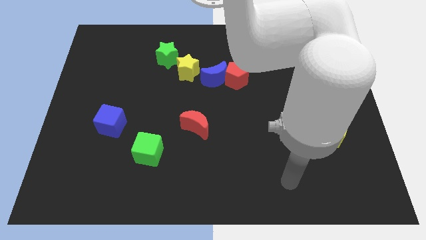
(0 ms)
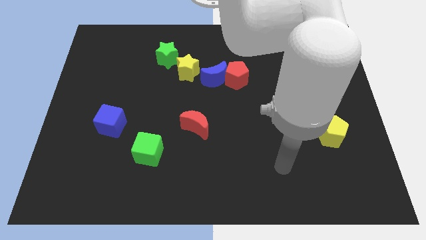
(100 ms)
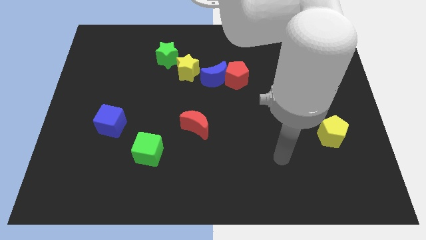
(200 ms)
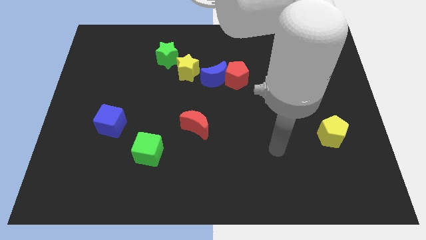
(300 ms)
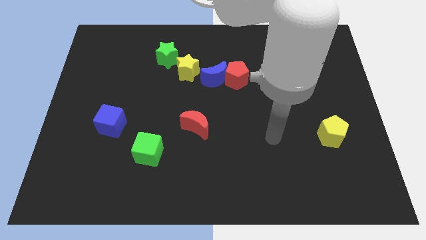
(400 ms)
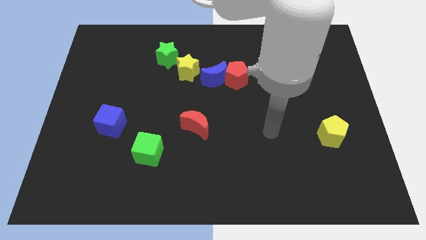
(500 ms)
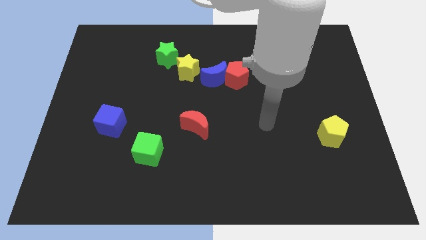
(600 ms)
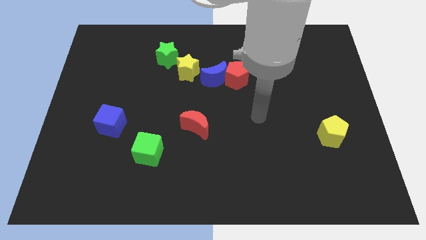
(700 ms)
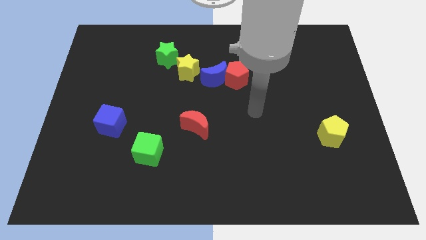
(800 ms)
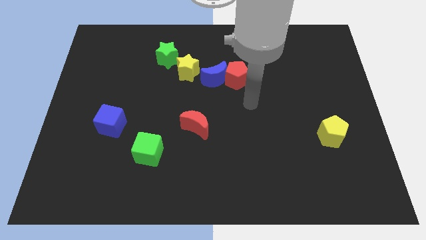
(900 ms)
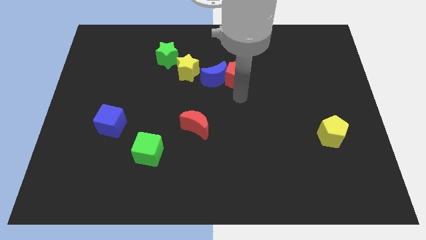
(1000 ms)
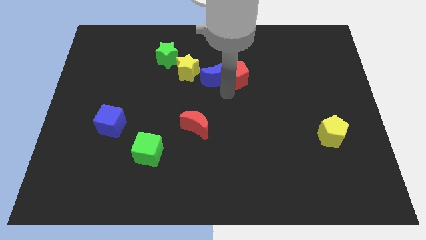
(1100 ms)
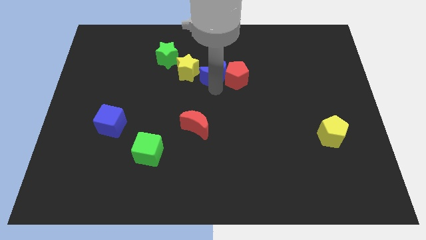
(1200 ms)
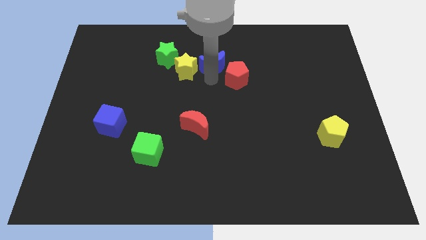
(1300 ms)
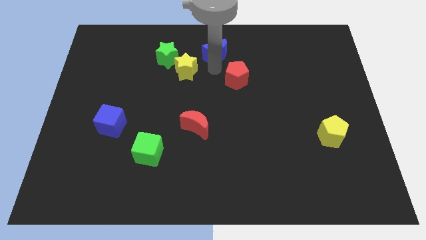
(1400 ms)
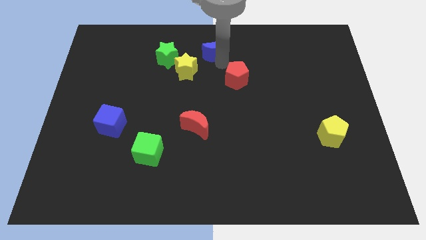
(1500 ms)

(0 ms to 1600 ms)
separate the red pentagon from the blue moon

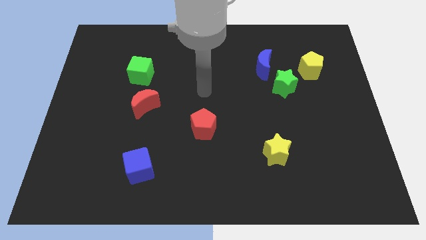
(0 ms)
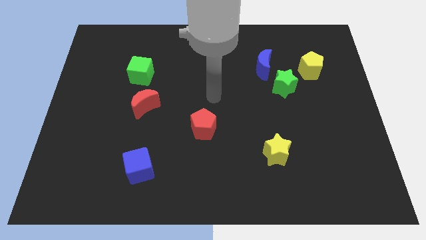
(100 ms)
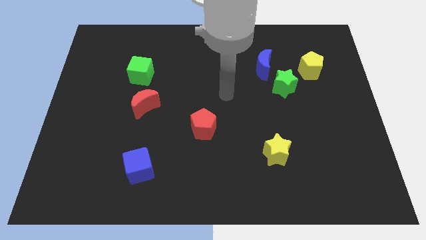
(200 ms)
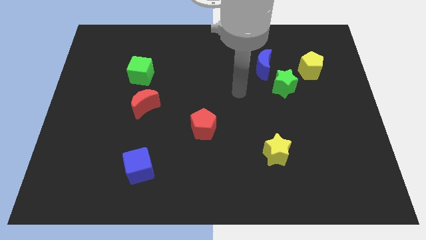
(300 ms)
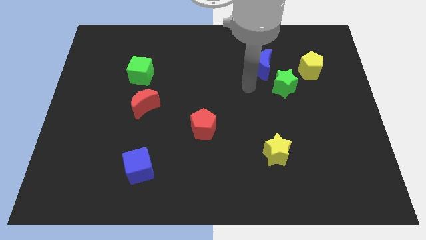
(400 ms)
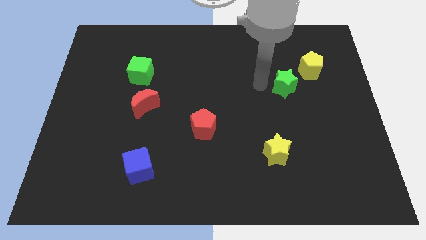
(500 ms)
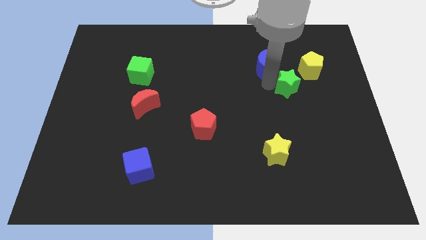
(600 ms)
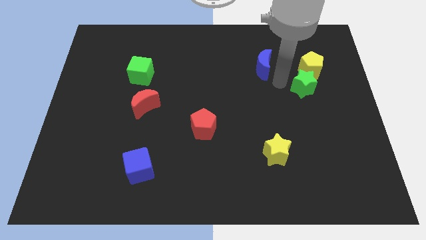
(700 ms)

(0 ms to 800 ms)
move the blue moon away from the green star

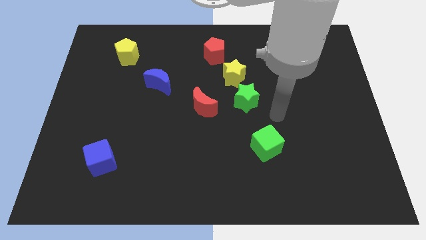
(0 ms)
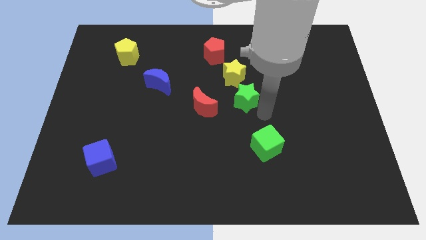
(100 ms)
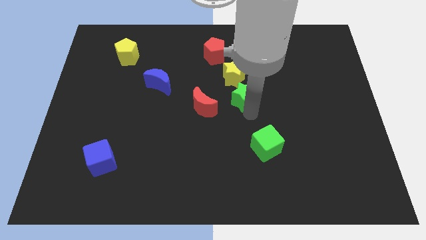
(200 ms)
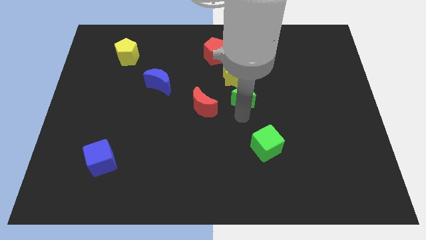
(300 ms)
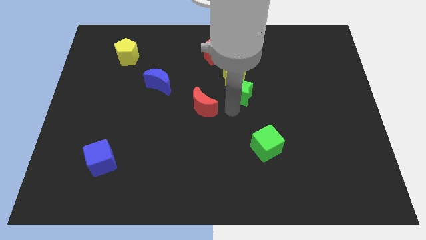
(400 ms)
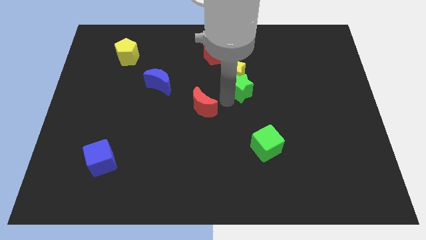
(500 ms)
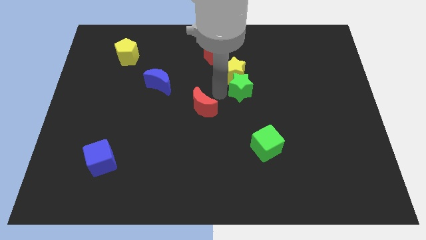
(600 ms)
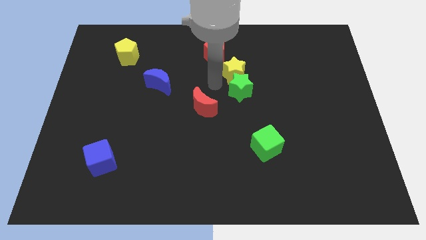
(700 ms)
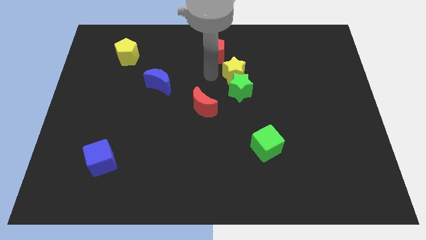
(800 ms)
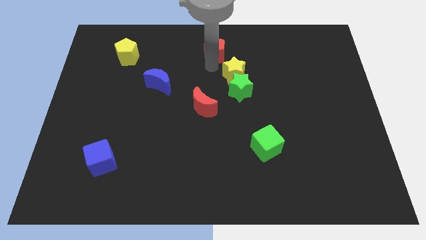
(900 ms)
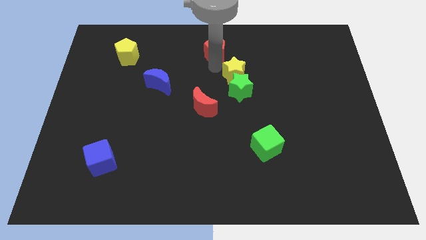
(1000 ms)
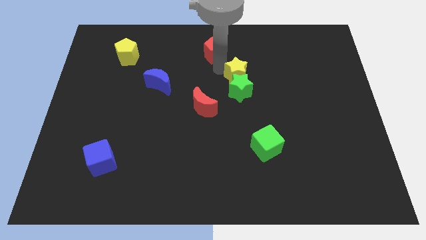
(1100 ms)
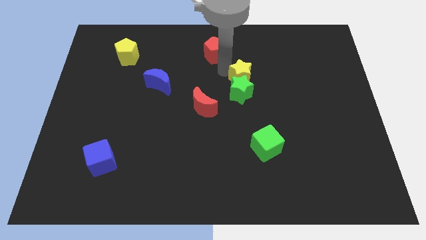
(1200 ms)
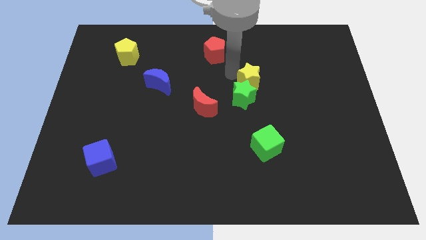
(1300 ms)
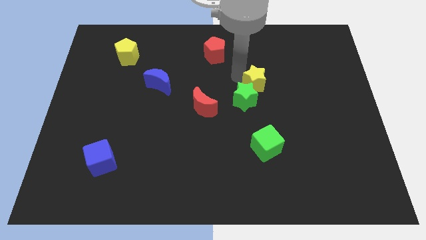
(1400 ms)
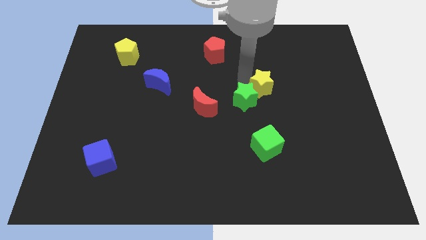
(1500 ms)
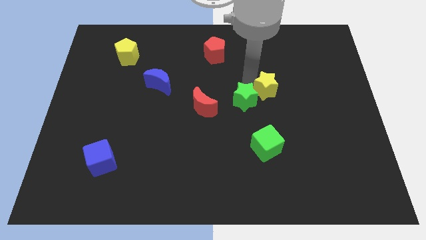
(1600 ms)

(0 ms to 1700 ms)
separate the yellow star from the green star and red pentagon

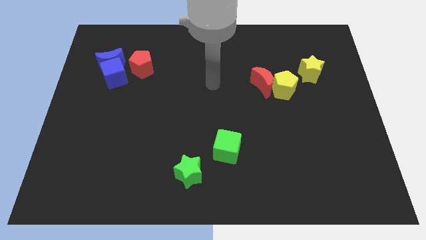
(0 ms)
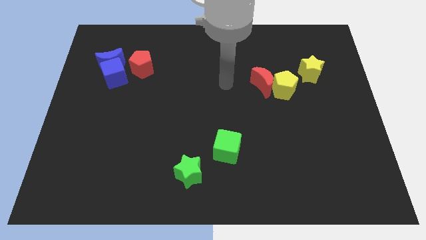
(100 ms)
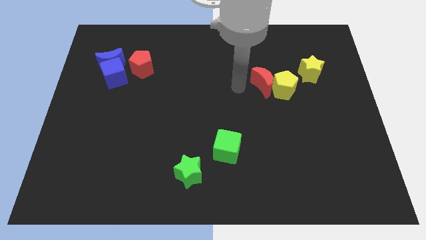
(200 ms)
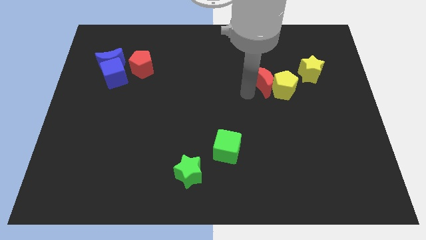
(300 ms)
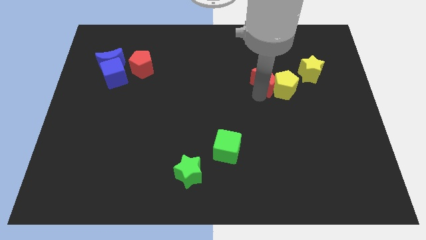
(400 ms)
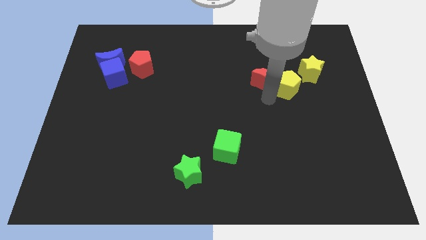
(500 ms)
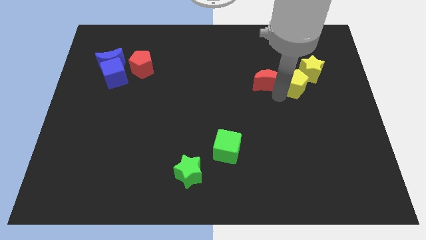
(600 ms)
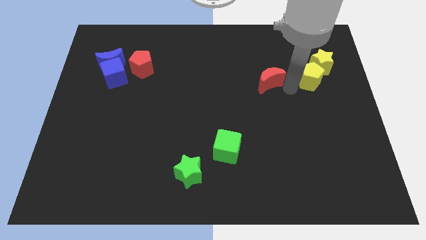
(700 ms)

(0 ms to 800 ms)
move the red moon away from the yellow pentagon

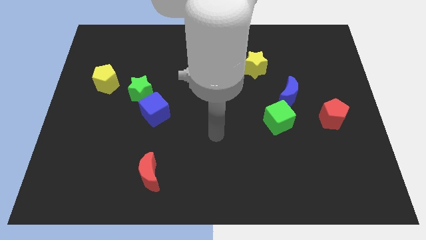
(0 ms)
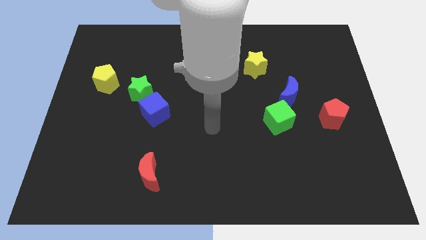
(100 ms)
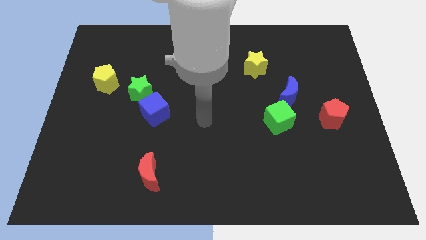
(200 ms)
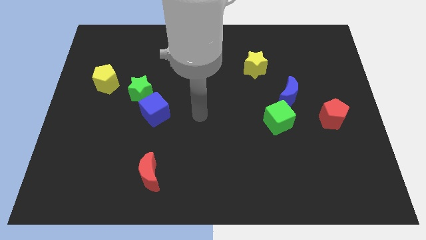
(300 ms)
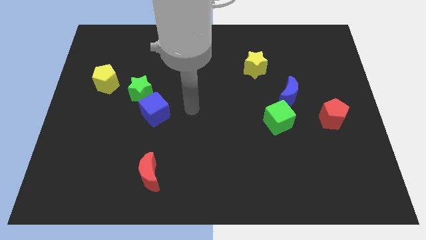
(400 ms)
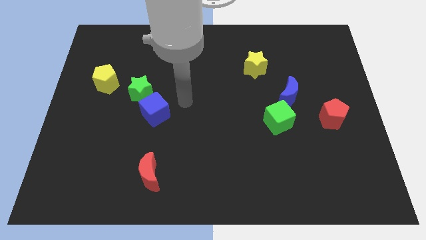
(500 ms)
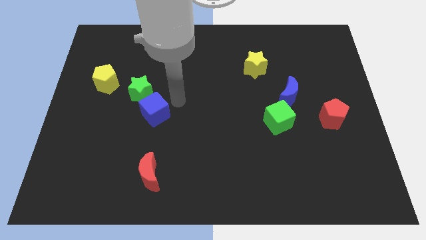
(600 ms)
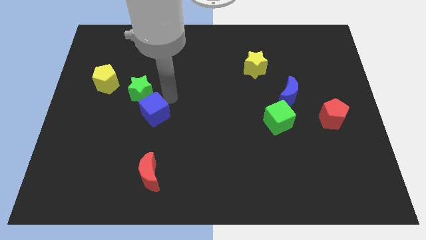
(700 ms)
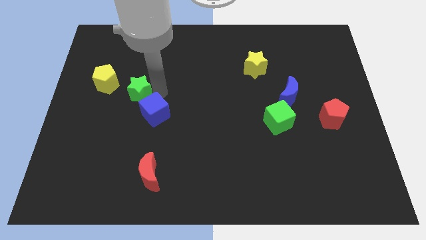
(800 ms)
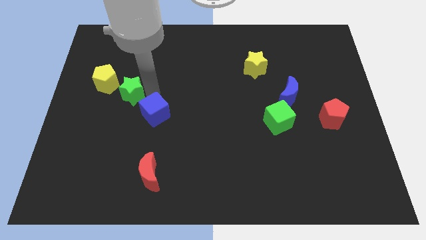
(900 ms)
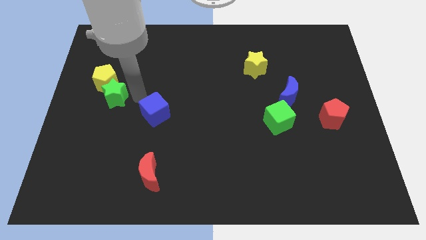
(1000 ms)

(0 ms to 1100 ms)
move the blue cube away from the green star

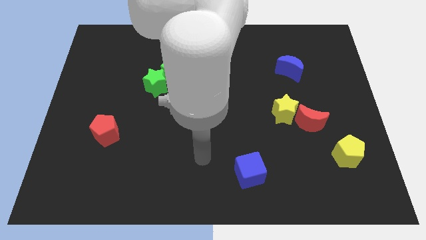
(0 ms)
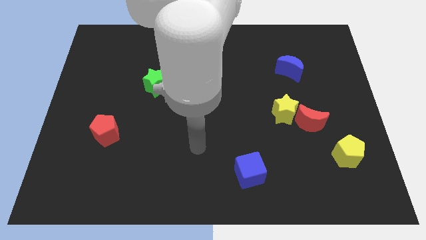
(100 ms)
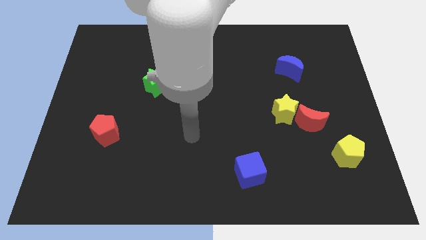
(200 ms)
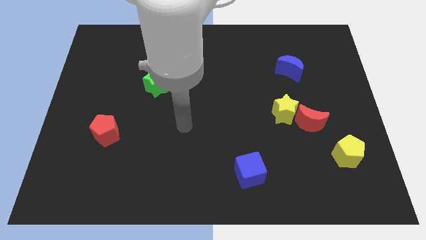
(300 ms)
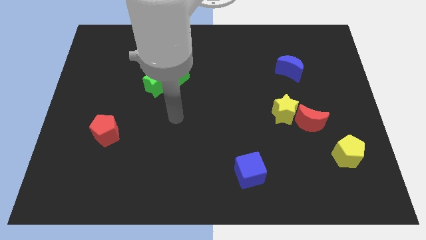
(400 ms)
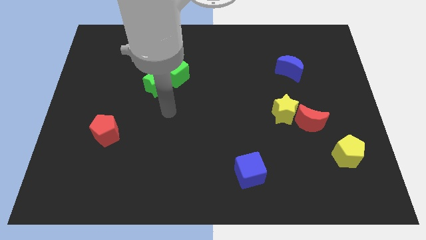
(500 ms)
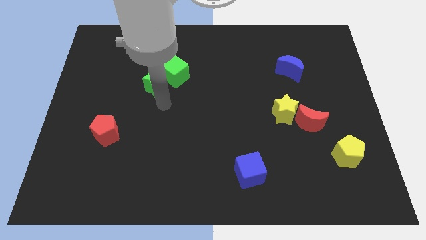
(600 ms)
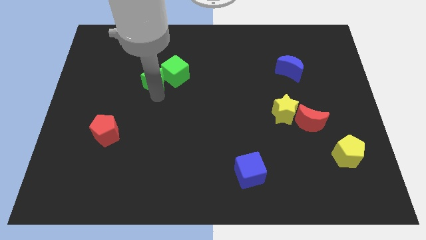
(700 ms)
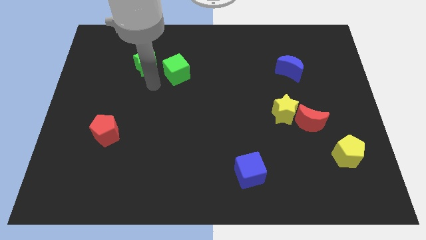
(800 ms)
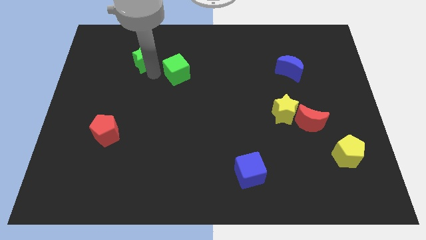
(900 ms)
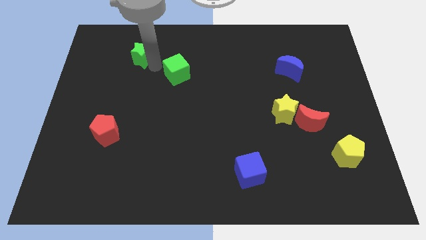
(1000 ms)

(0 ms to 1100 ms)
pull the green cube apart from the green star

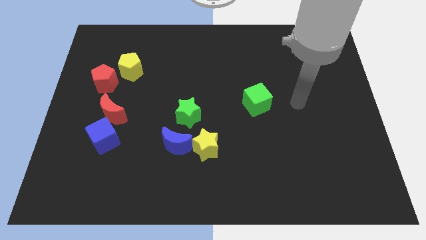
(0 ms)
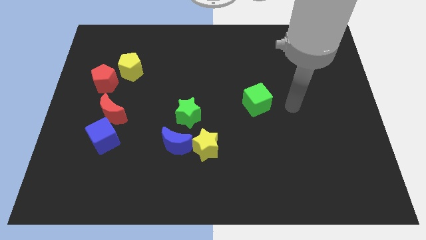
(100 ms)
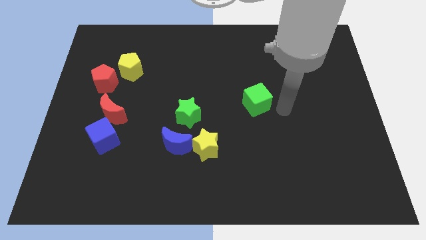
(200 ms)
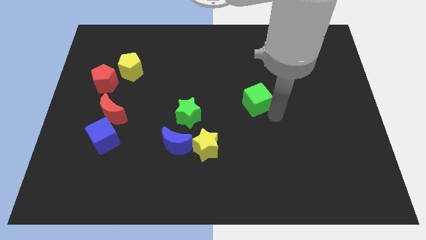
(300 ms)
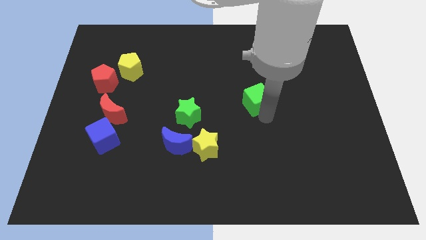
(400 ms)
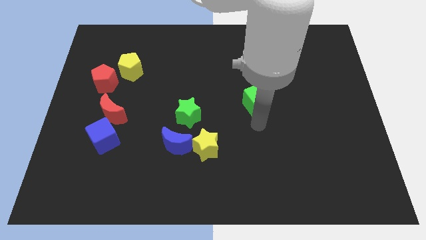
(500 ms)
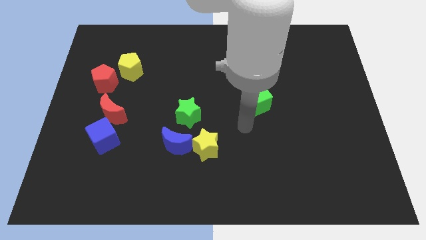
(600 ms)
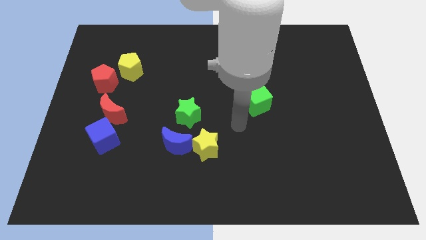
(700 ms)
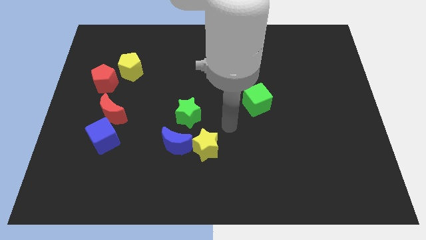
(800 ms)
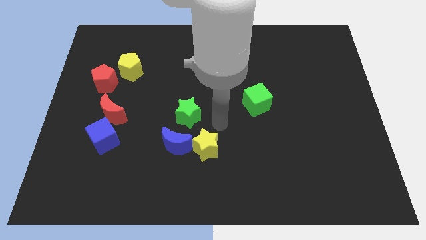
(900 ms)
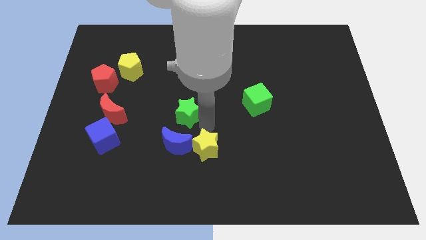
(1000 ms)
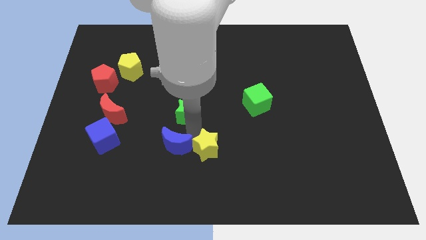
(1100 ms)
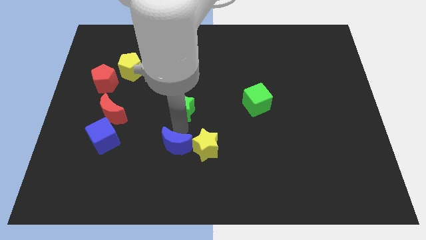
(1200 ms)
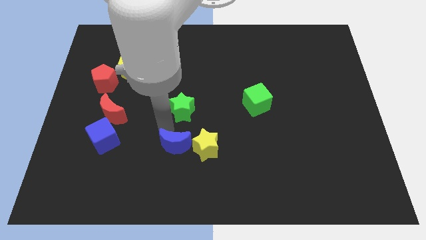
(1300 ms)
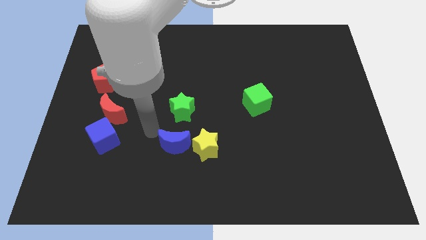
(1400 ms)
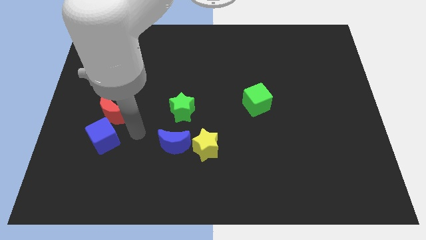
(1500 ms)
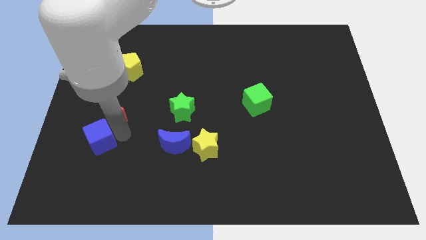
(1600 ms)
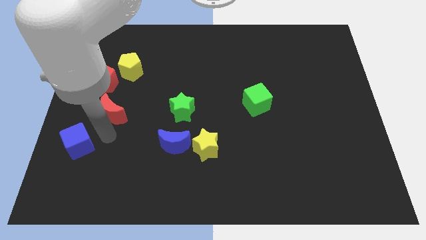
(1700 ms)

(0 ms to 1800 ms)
separate the red moon from the blue cube

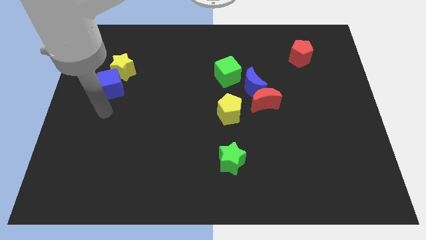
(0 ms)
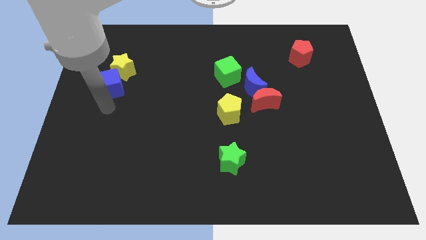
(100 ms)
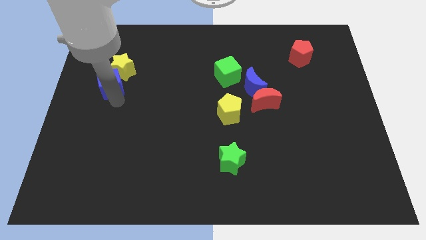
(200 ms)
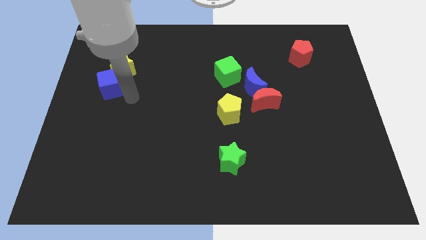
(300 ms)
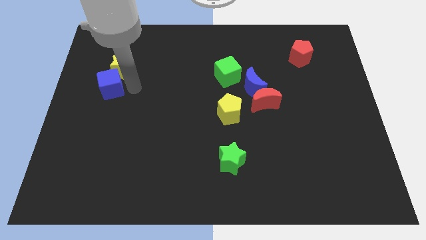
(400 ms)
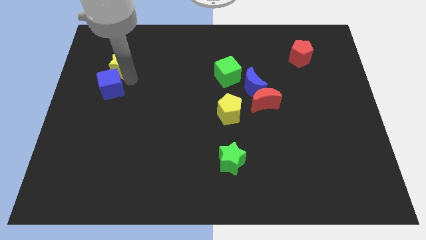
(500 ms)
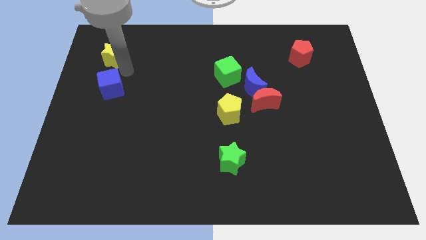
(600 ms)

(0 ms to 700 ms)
separate the blue cube from the yellow star
